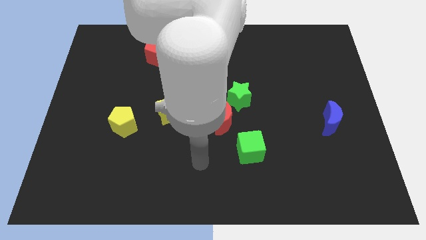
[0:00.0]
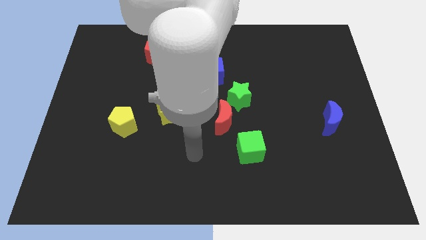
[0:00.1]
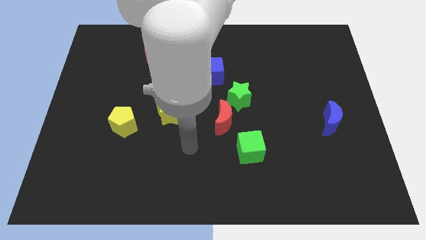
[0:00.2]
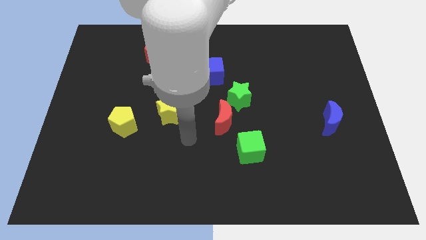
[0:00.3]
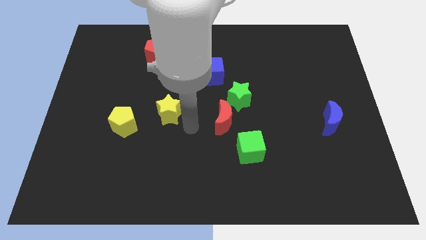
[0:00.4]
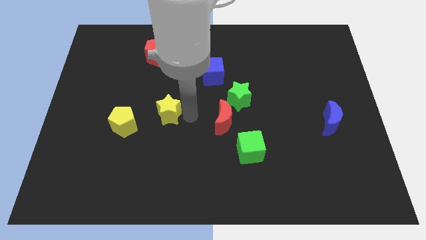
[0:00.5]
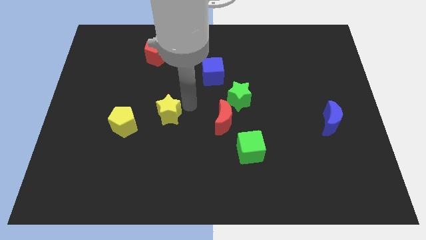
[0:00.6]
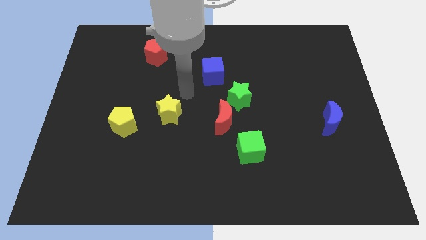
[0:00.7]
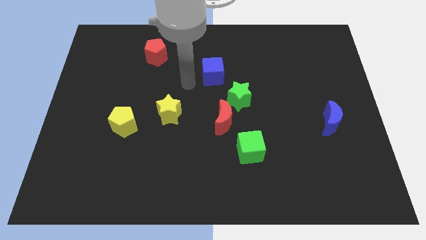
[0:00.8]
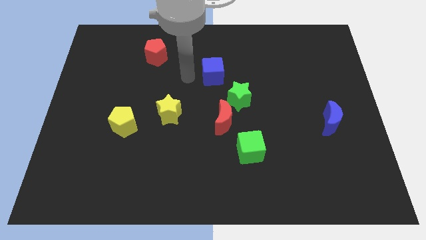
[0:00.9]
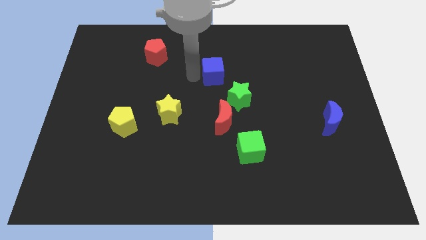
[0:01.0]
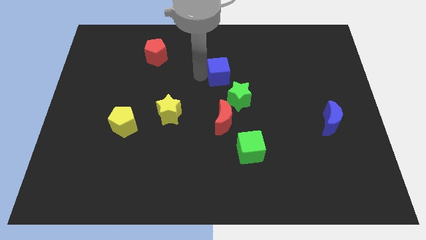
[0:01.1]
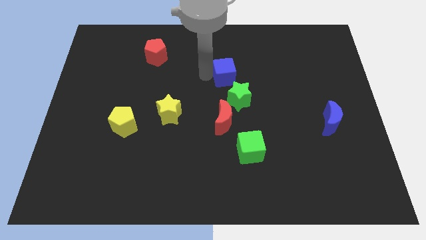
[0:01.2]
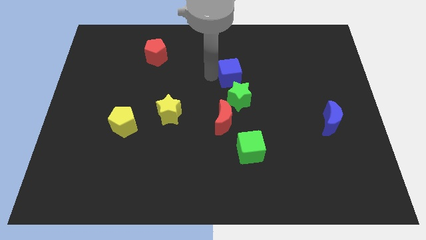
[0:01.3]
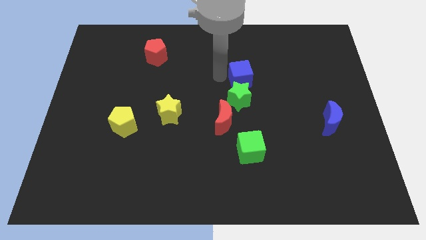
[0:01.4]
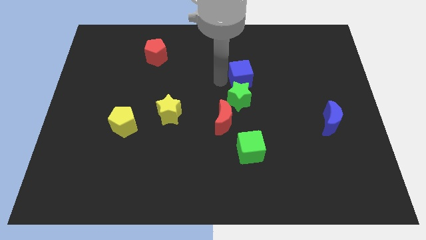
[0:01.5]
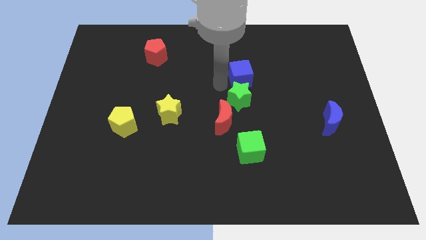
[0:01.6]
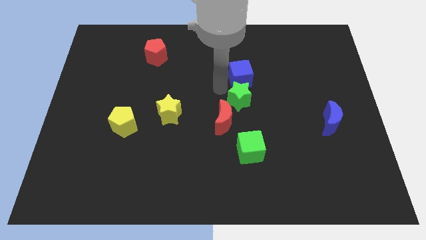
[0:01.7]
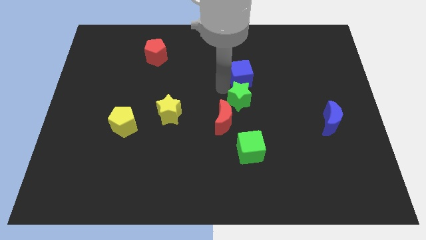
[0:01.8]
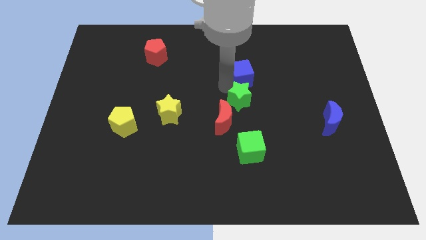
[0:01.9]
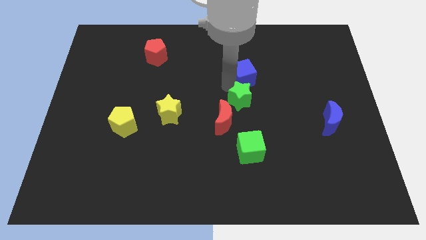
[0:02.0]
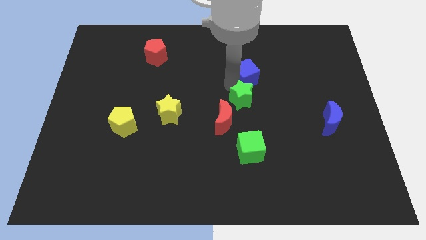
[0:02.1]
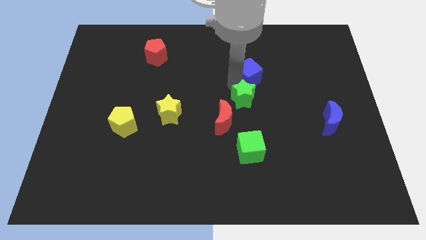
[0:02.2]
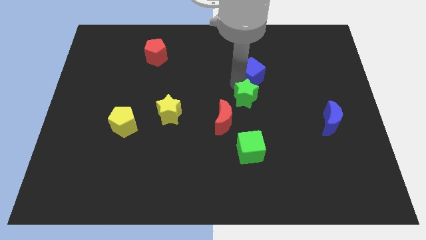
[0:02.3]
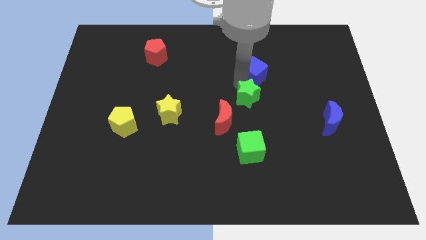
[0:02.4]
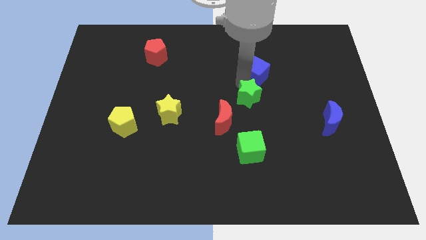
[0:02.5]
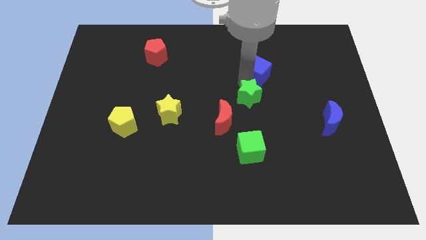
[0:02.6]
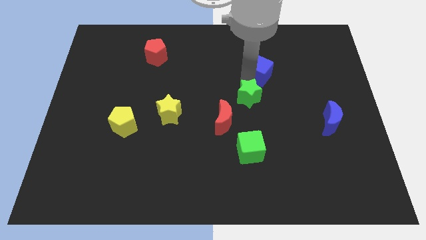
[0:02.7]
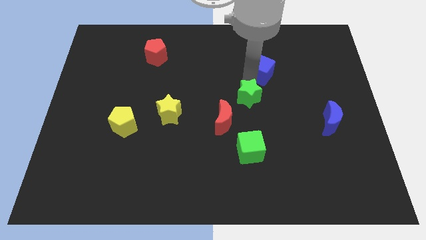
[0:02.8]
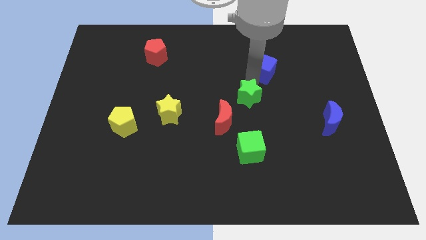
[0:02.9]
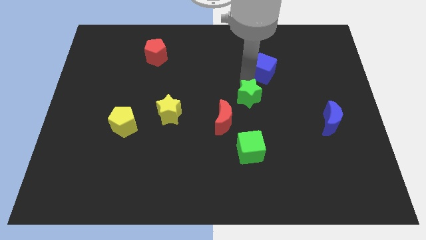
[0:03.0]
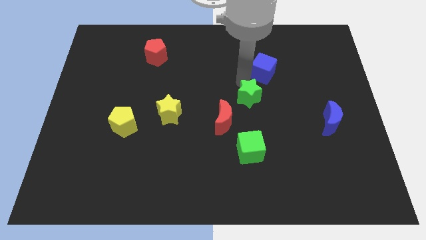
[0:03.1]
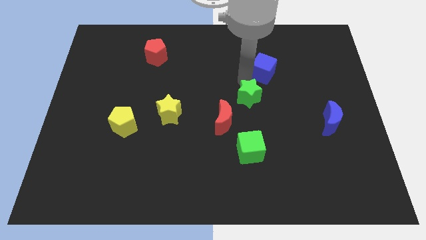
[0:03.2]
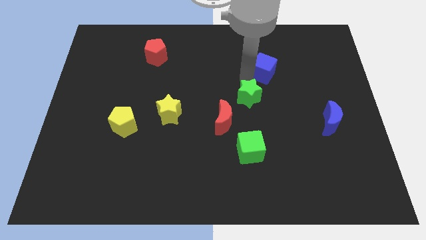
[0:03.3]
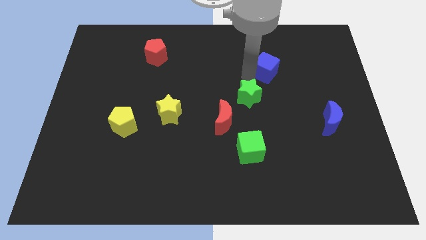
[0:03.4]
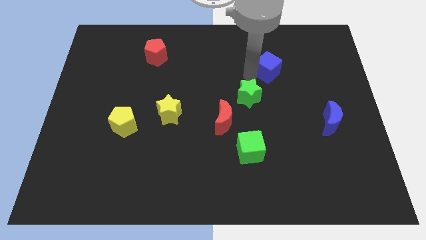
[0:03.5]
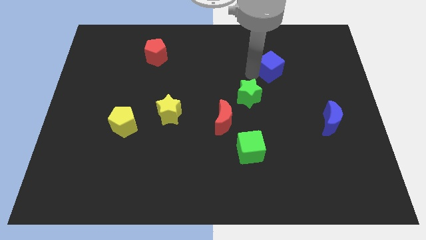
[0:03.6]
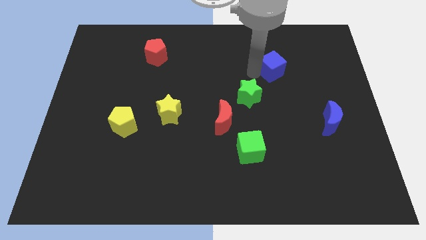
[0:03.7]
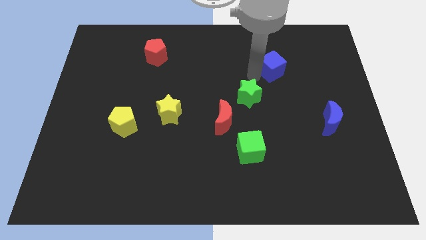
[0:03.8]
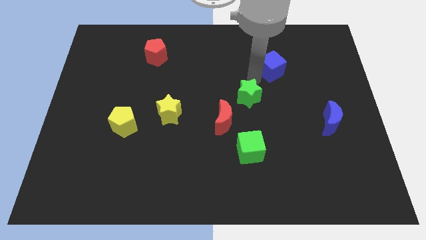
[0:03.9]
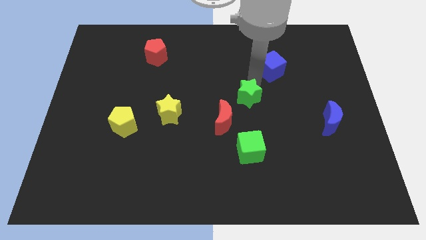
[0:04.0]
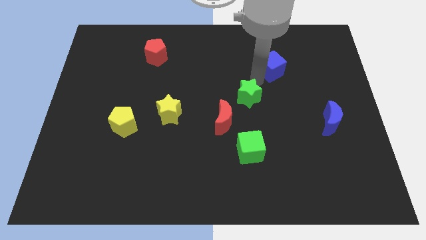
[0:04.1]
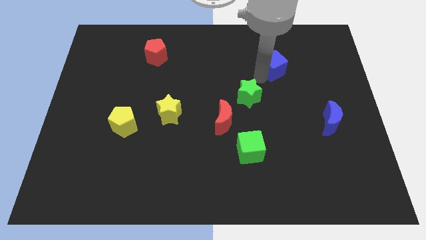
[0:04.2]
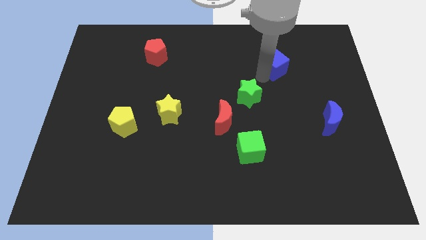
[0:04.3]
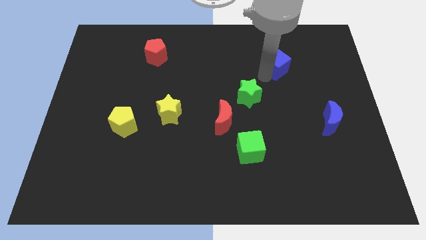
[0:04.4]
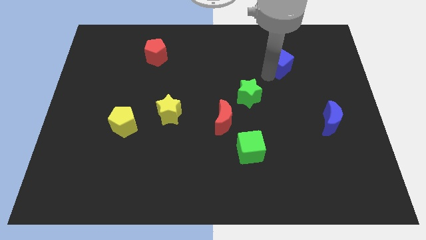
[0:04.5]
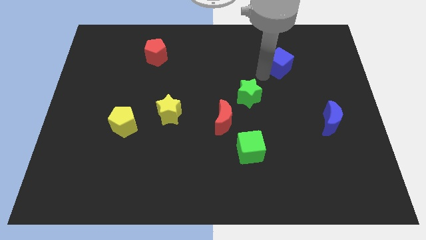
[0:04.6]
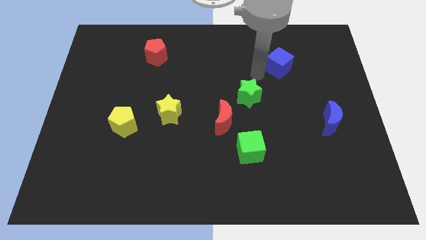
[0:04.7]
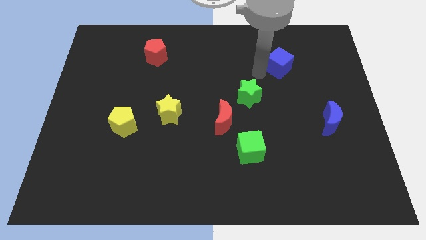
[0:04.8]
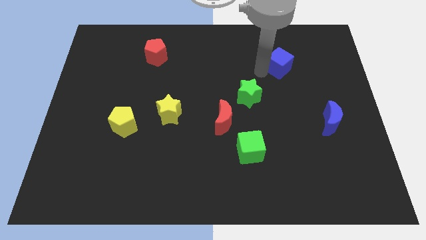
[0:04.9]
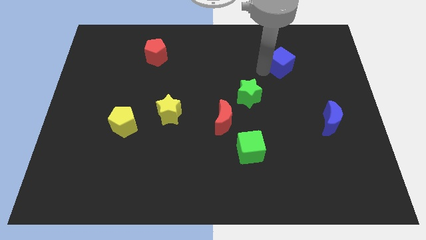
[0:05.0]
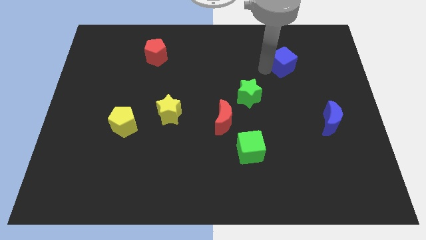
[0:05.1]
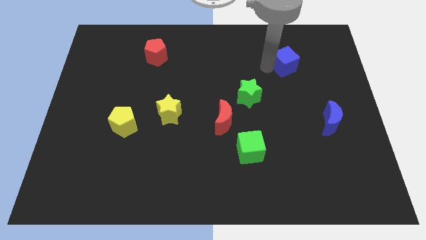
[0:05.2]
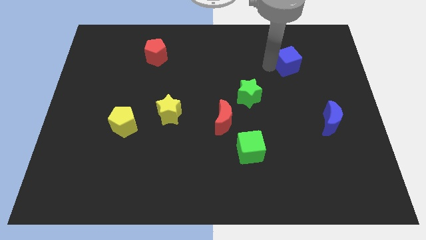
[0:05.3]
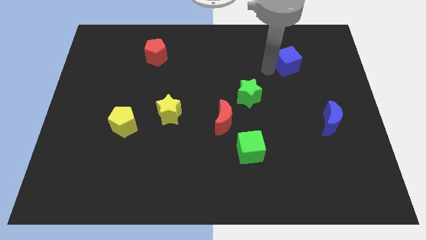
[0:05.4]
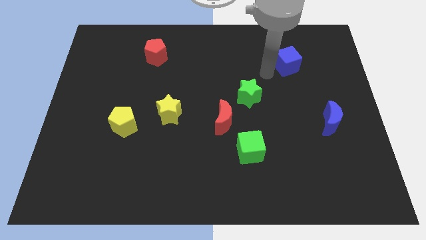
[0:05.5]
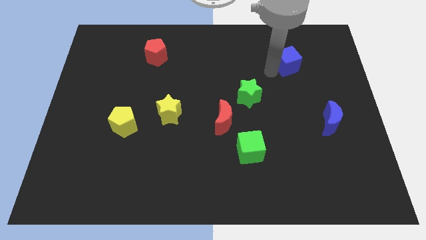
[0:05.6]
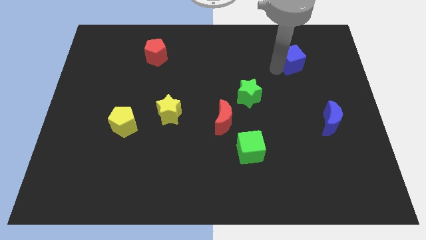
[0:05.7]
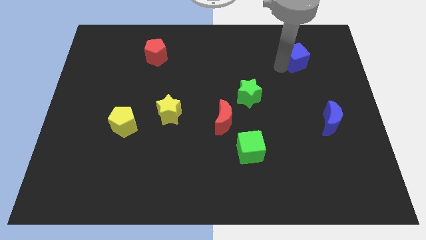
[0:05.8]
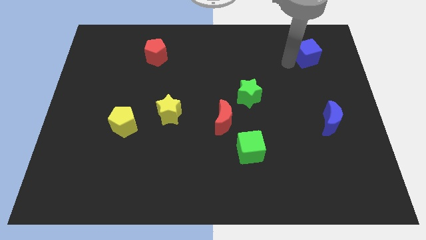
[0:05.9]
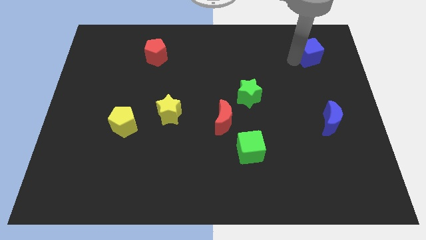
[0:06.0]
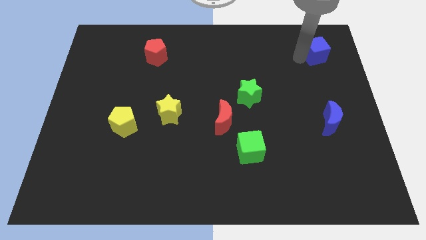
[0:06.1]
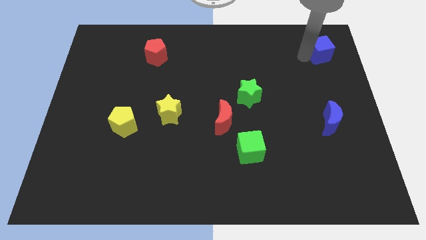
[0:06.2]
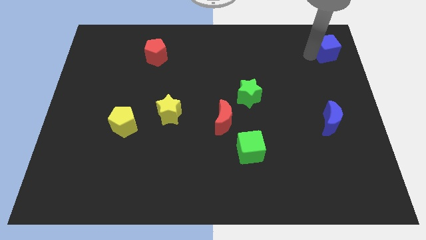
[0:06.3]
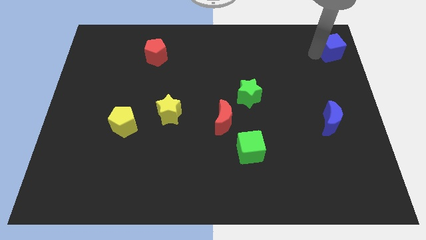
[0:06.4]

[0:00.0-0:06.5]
push the blue cube to the top right corner

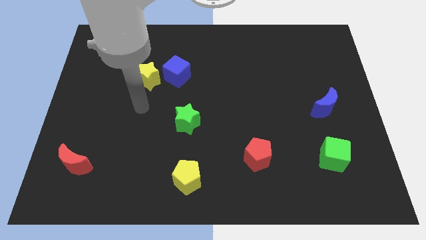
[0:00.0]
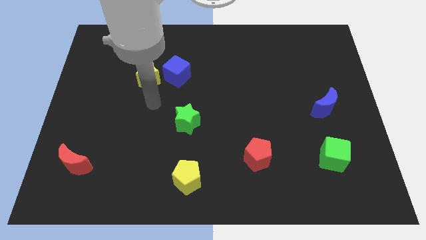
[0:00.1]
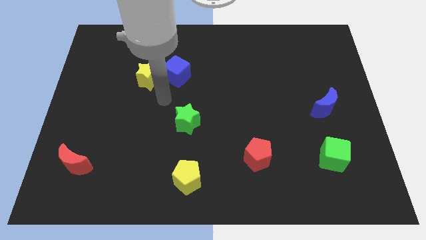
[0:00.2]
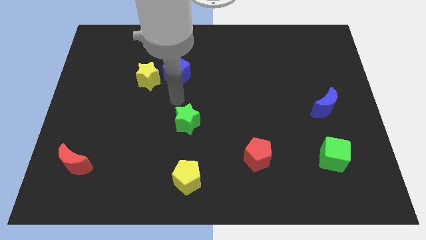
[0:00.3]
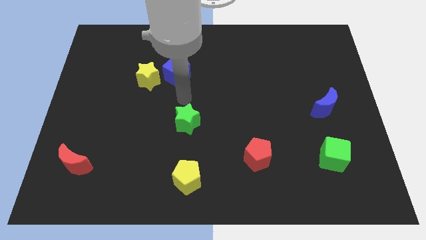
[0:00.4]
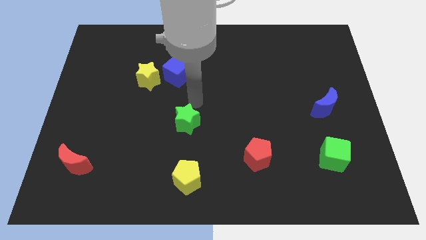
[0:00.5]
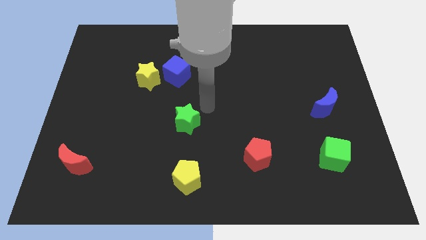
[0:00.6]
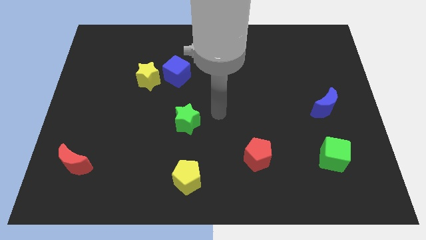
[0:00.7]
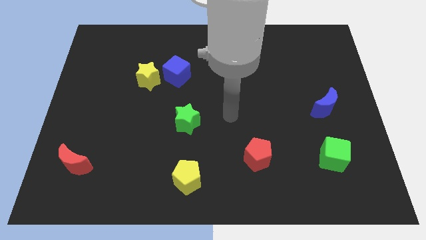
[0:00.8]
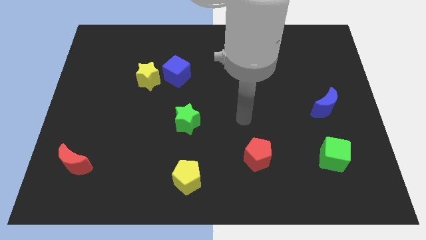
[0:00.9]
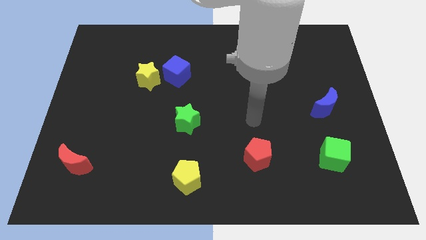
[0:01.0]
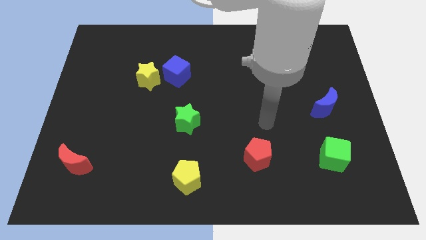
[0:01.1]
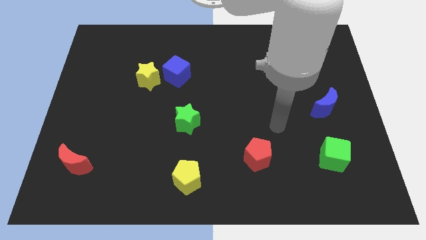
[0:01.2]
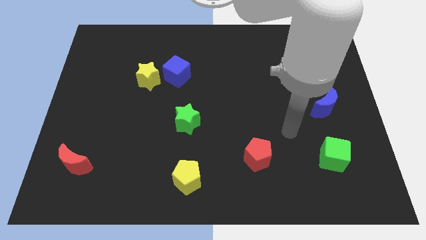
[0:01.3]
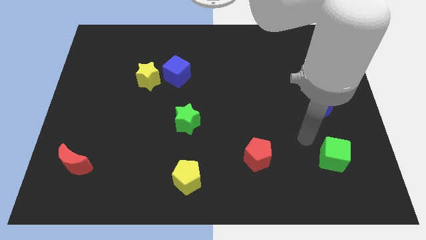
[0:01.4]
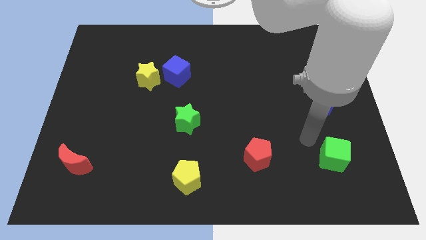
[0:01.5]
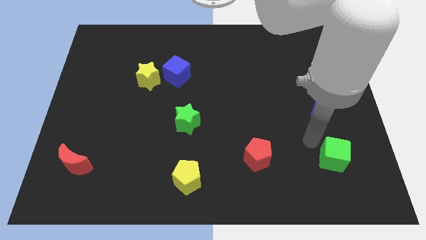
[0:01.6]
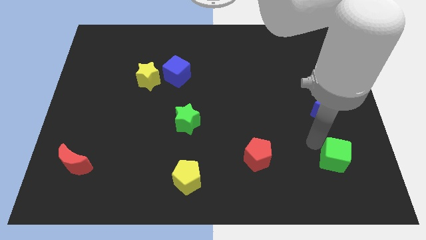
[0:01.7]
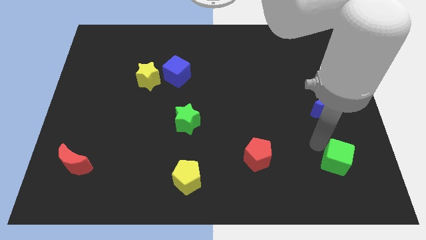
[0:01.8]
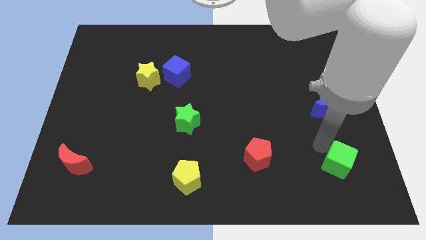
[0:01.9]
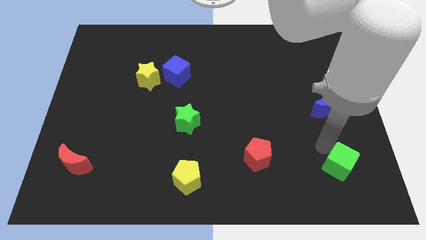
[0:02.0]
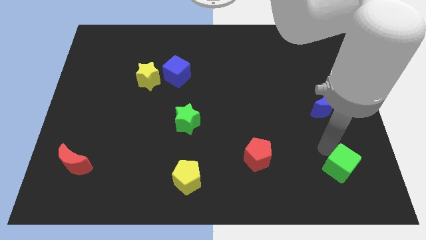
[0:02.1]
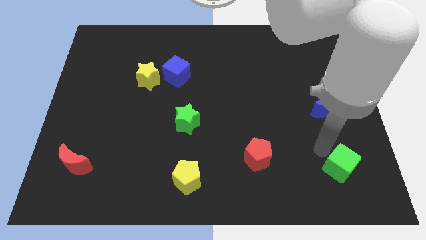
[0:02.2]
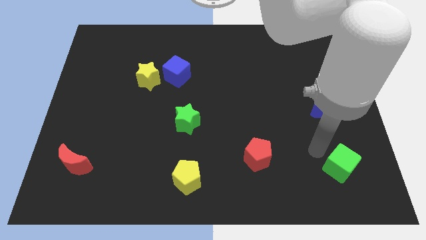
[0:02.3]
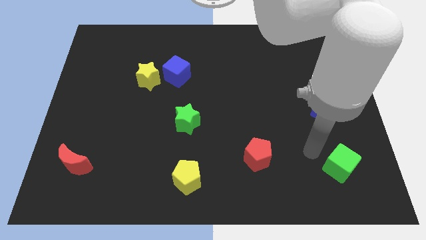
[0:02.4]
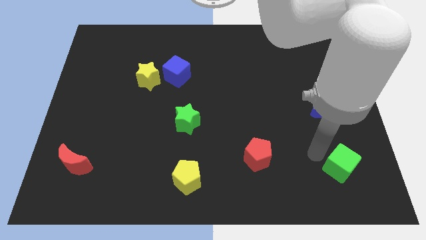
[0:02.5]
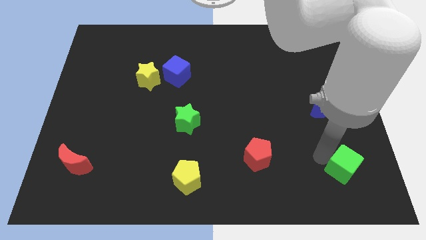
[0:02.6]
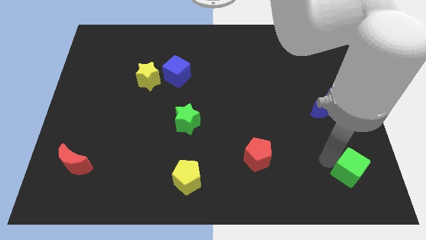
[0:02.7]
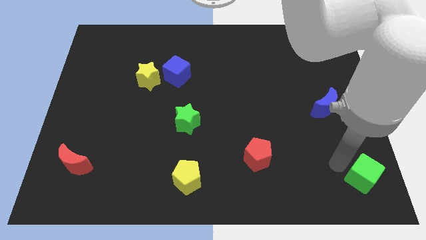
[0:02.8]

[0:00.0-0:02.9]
move the green cube to the bottom right corner
